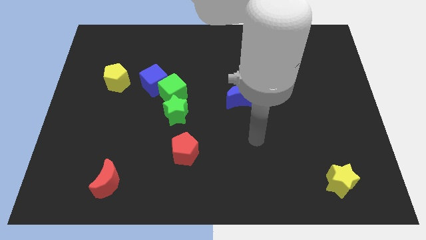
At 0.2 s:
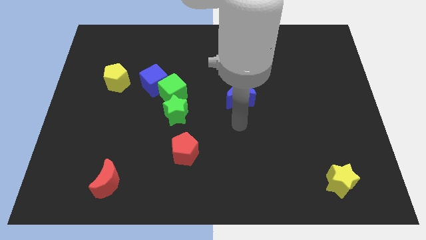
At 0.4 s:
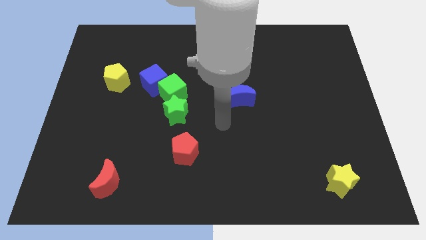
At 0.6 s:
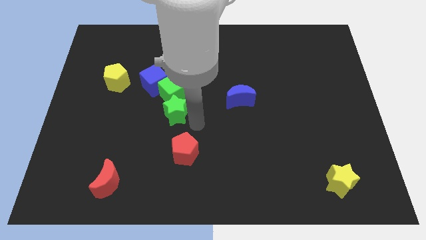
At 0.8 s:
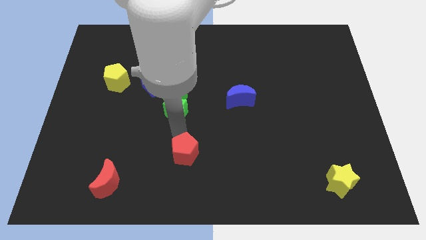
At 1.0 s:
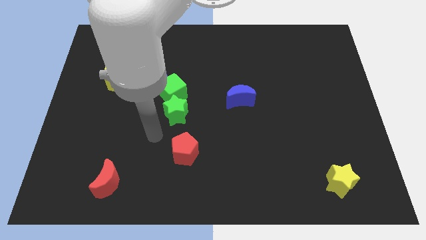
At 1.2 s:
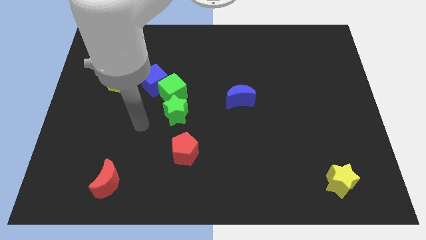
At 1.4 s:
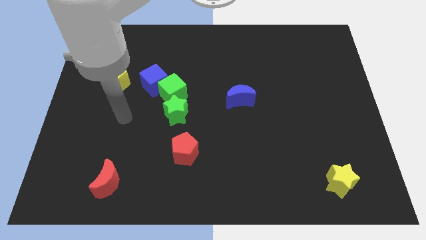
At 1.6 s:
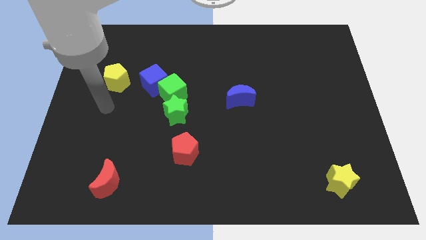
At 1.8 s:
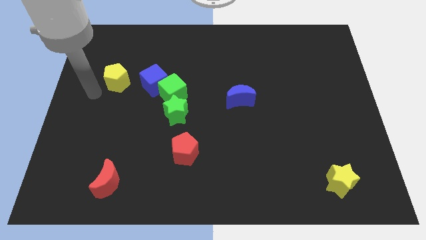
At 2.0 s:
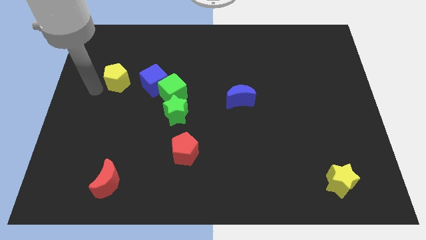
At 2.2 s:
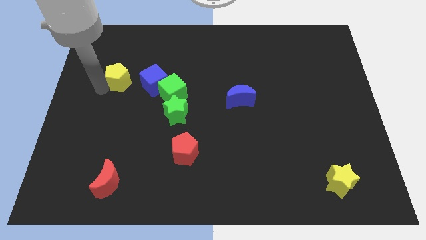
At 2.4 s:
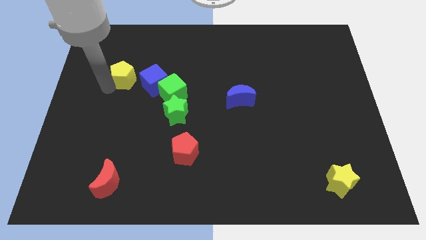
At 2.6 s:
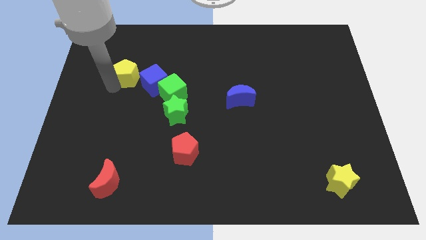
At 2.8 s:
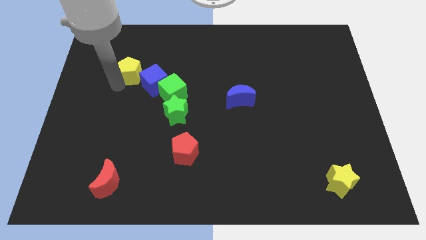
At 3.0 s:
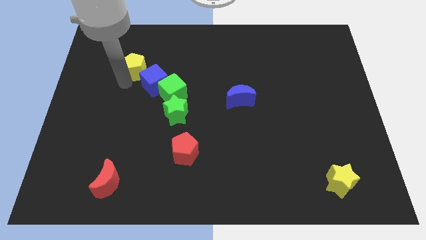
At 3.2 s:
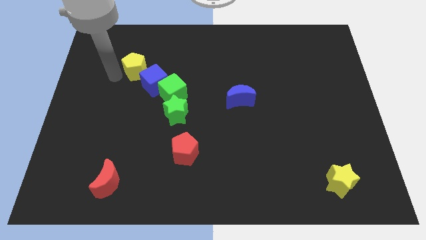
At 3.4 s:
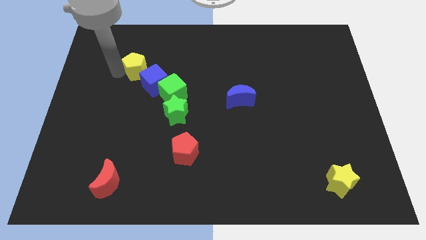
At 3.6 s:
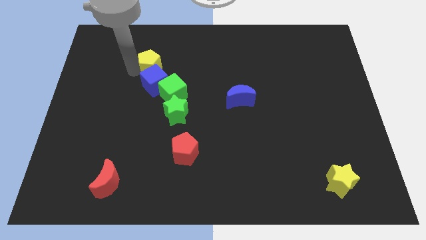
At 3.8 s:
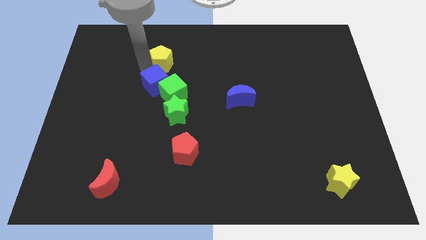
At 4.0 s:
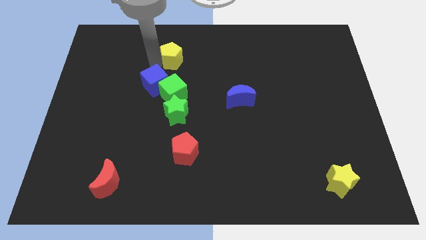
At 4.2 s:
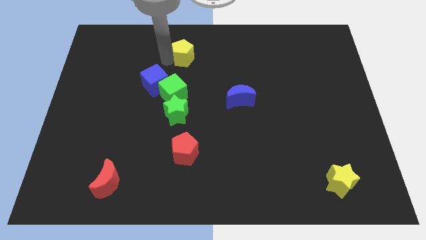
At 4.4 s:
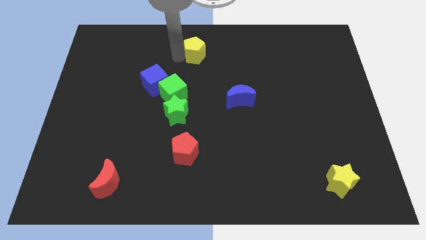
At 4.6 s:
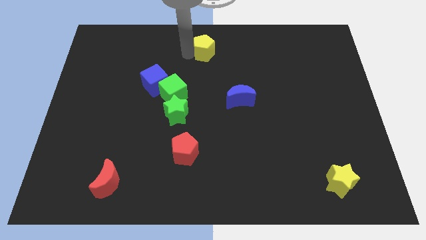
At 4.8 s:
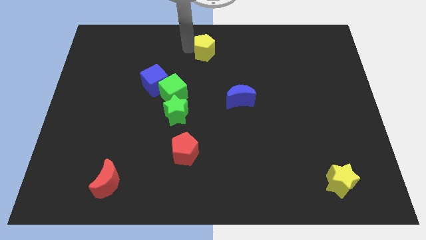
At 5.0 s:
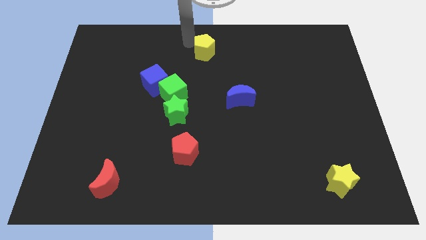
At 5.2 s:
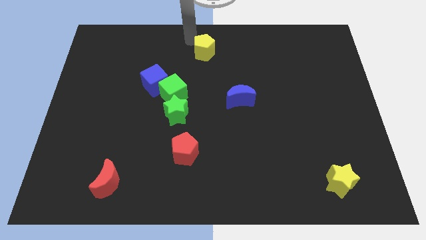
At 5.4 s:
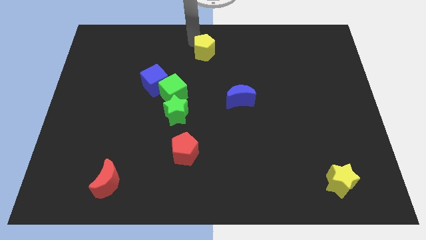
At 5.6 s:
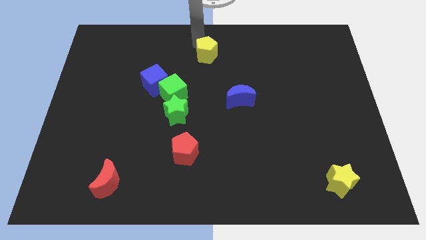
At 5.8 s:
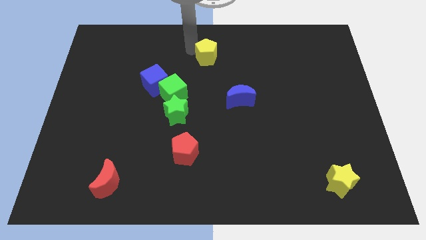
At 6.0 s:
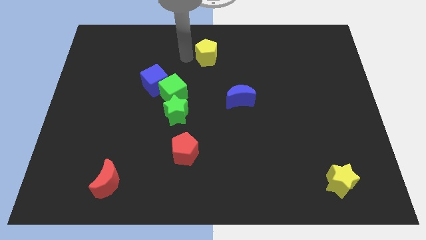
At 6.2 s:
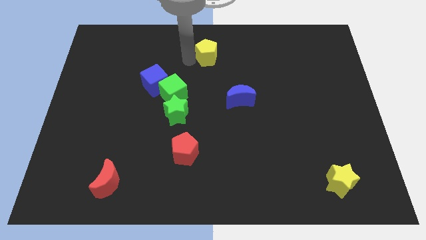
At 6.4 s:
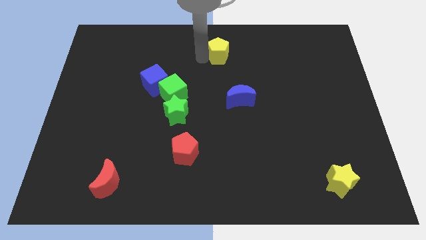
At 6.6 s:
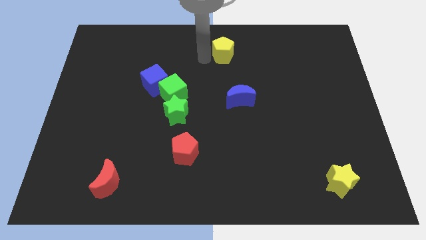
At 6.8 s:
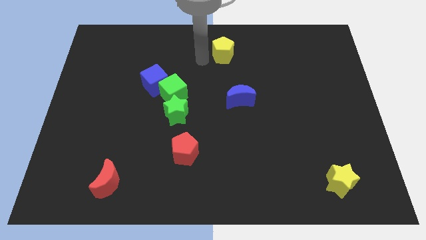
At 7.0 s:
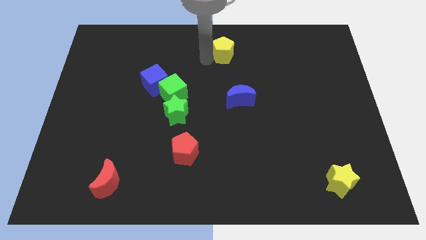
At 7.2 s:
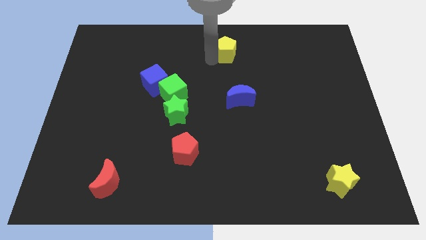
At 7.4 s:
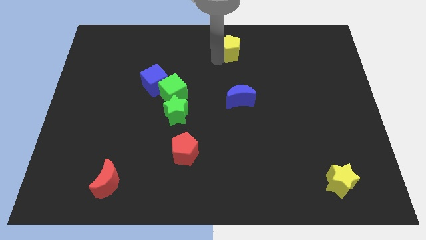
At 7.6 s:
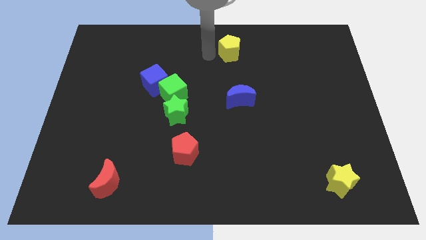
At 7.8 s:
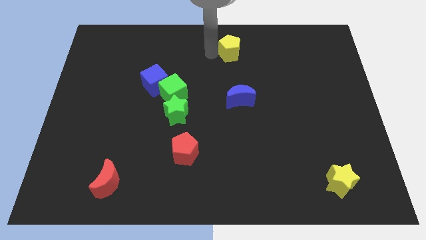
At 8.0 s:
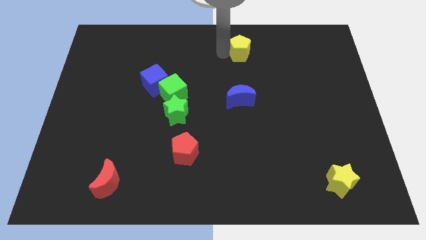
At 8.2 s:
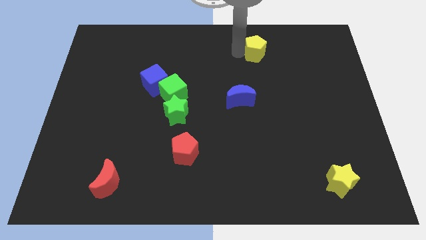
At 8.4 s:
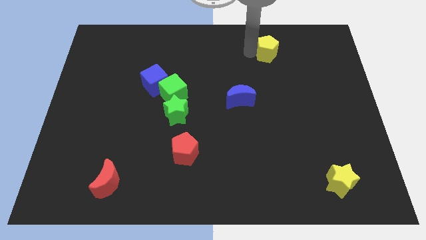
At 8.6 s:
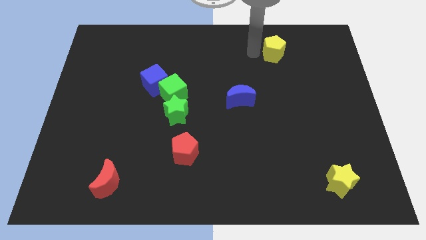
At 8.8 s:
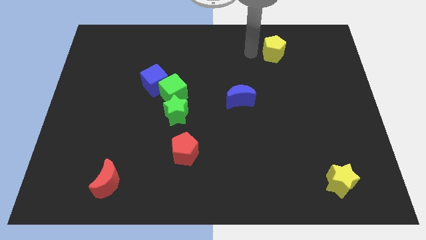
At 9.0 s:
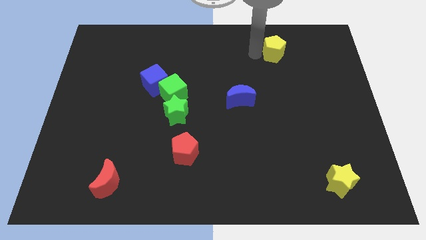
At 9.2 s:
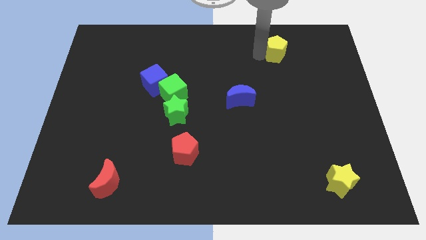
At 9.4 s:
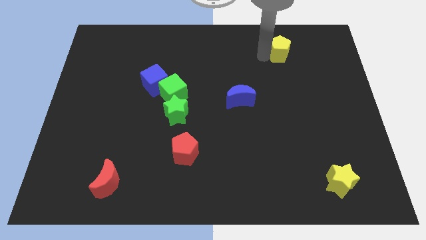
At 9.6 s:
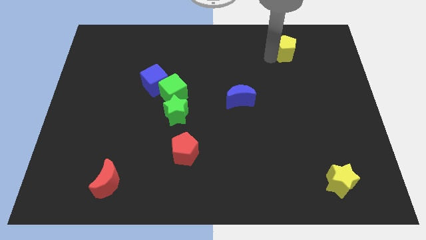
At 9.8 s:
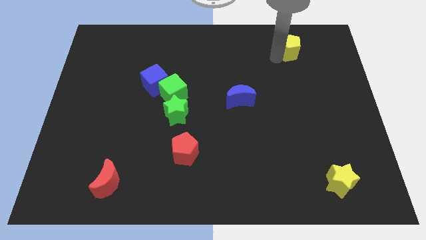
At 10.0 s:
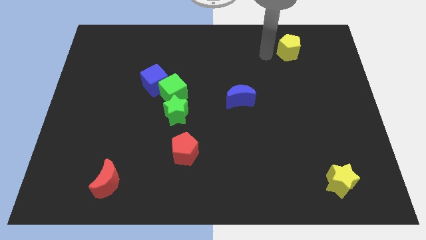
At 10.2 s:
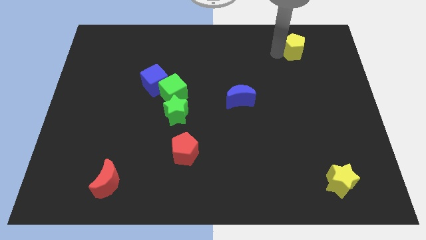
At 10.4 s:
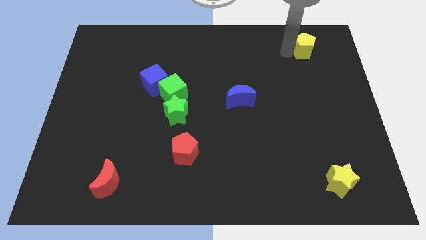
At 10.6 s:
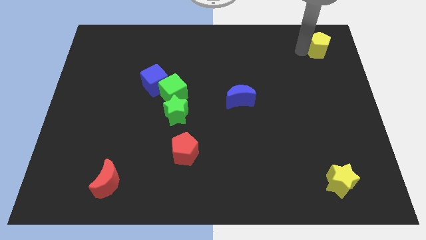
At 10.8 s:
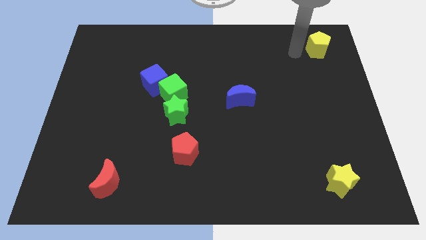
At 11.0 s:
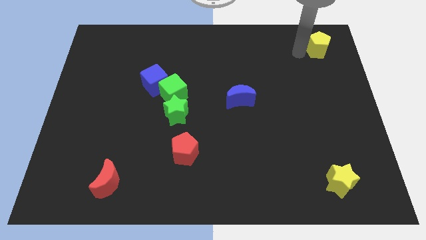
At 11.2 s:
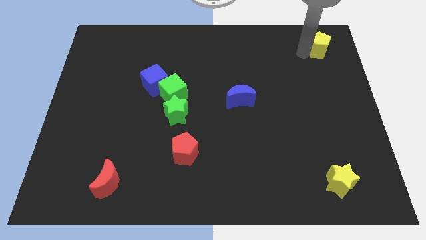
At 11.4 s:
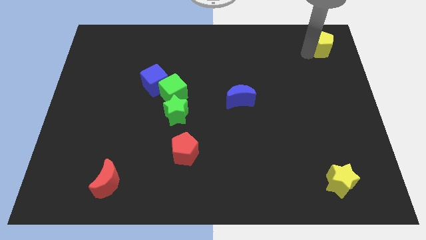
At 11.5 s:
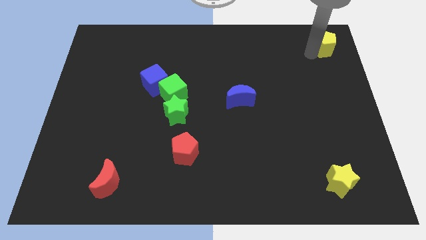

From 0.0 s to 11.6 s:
move the yellow pentagon to the top right of the board

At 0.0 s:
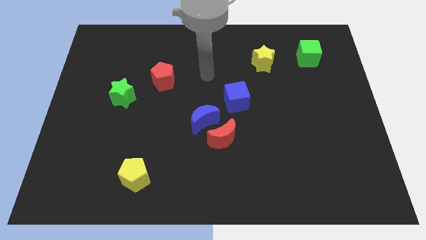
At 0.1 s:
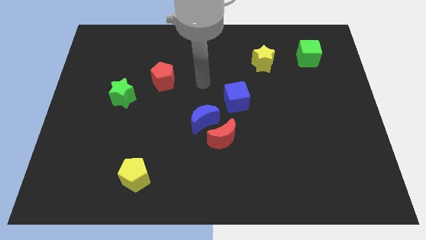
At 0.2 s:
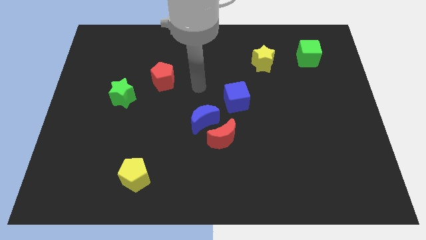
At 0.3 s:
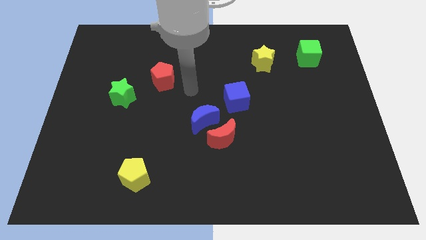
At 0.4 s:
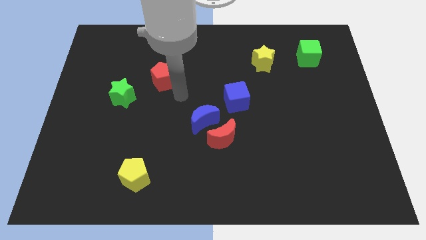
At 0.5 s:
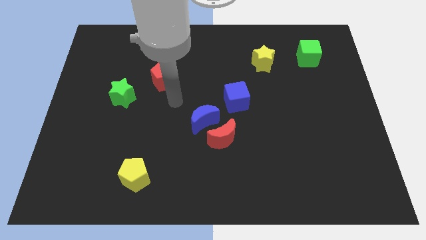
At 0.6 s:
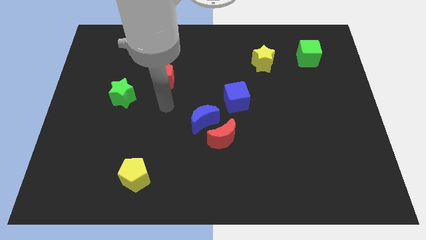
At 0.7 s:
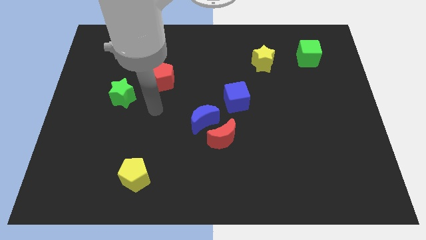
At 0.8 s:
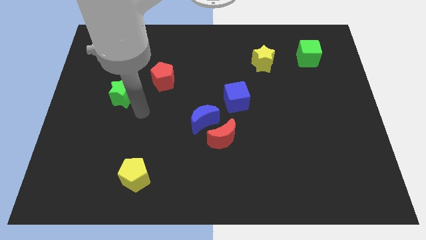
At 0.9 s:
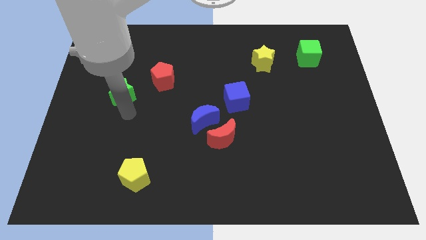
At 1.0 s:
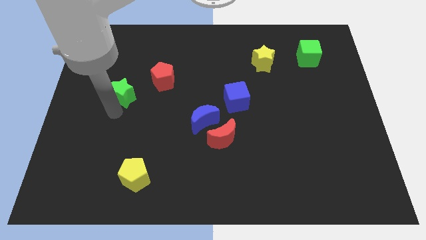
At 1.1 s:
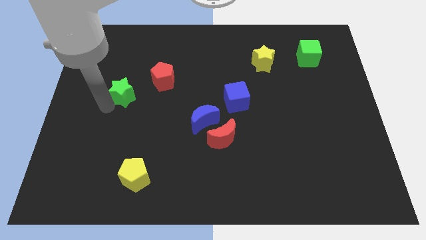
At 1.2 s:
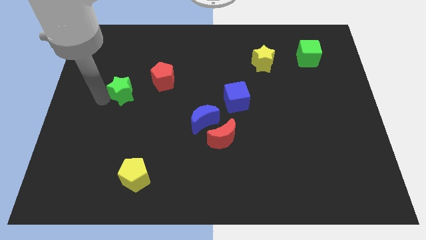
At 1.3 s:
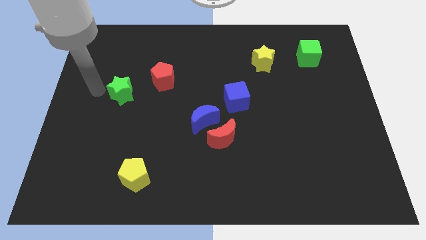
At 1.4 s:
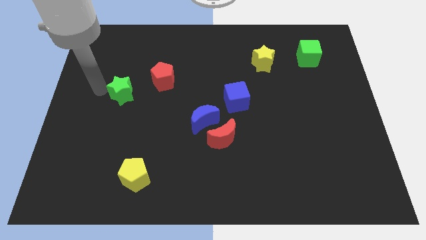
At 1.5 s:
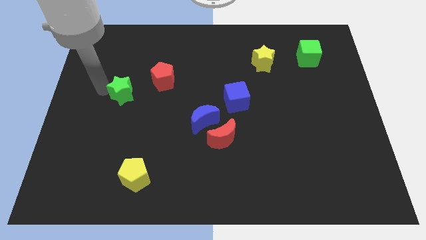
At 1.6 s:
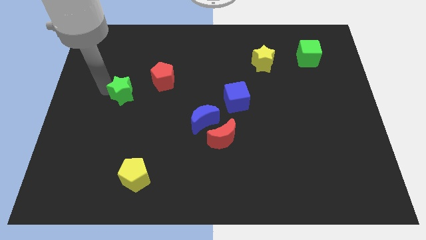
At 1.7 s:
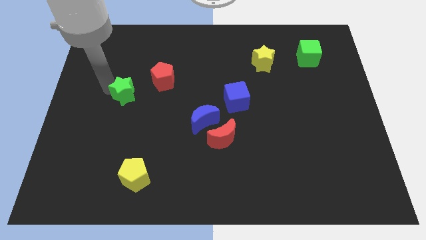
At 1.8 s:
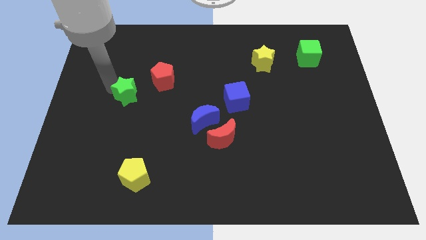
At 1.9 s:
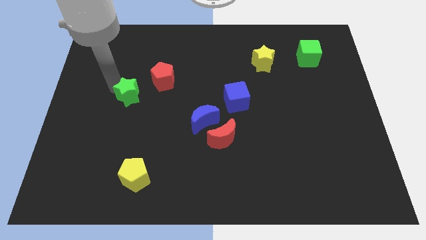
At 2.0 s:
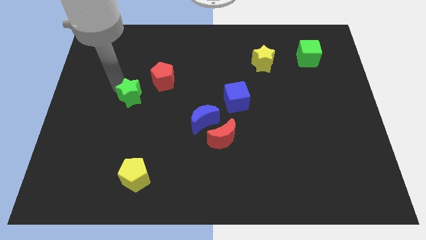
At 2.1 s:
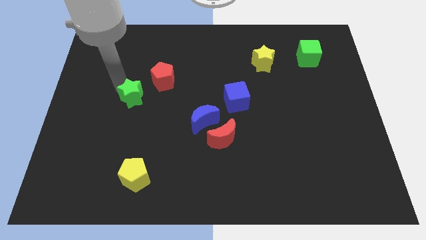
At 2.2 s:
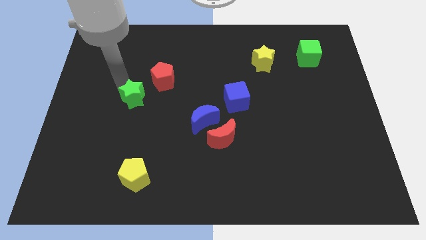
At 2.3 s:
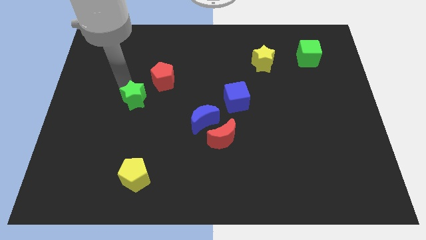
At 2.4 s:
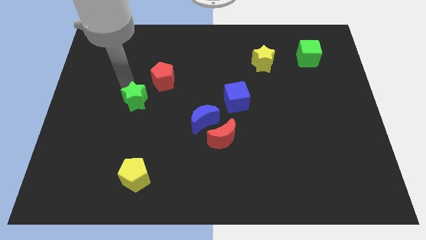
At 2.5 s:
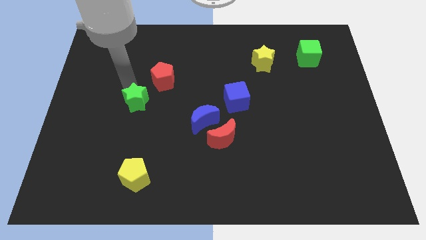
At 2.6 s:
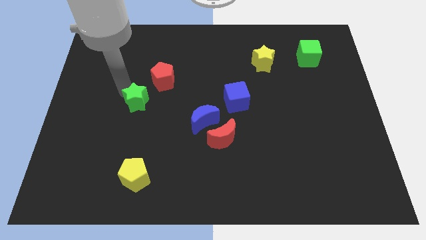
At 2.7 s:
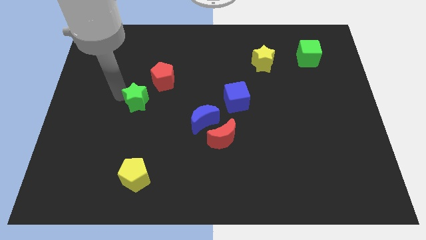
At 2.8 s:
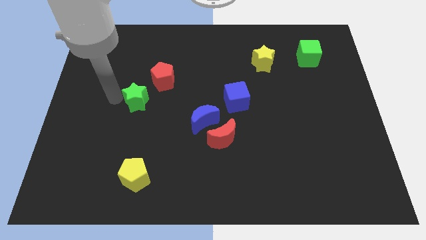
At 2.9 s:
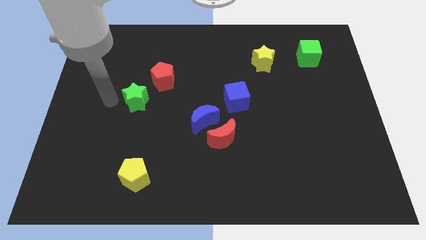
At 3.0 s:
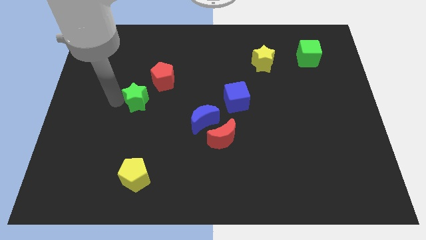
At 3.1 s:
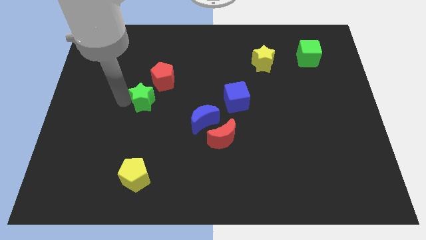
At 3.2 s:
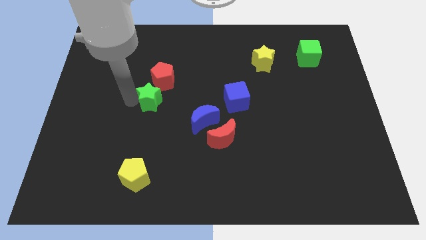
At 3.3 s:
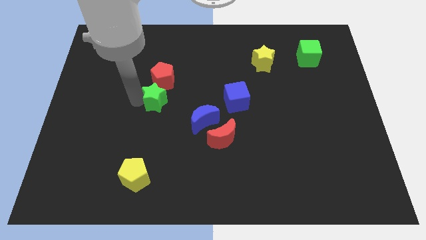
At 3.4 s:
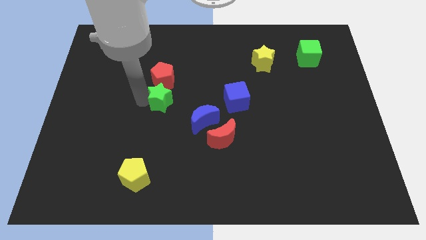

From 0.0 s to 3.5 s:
push the green star to the middle
